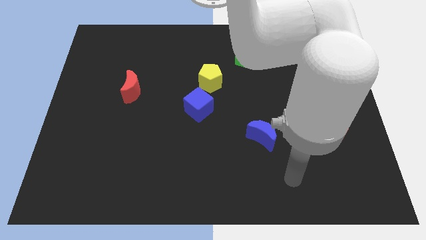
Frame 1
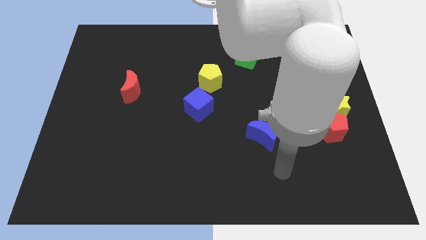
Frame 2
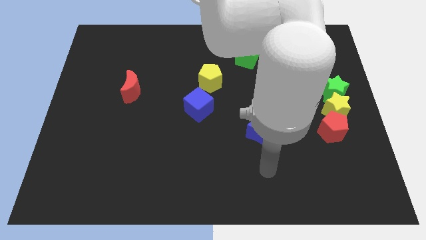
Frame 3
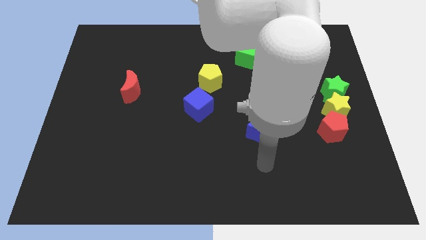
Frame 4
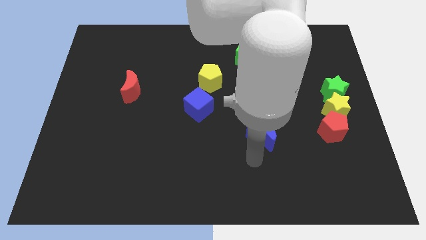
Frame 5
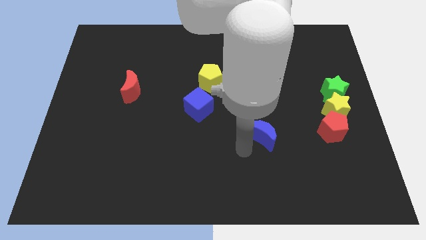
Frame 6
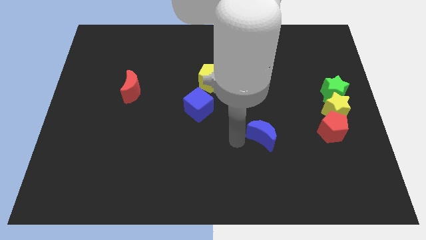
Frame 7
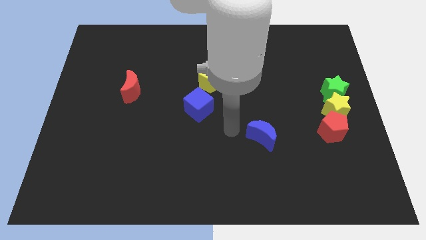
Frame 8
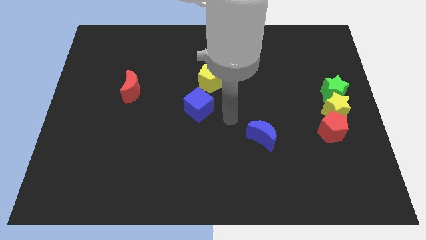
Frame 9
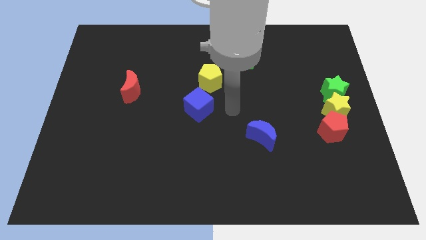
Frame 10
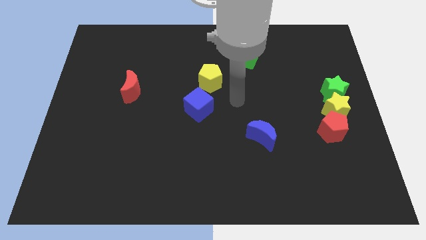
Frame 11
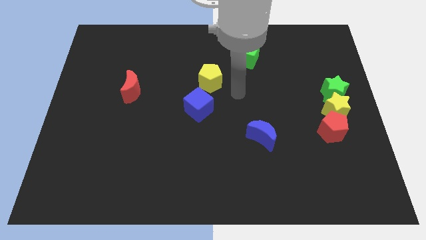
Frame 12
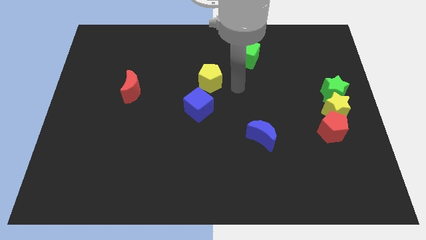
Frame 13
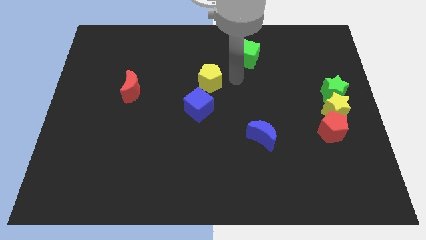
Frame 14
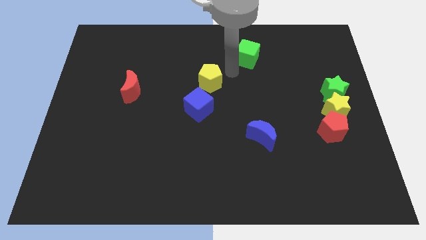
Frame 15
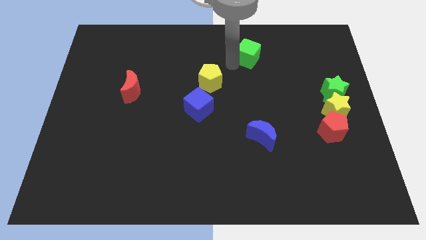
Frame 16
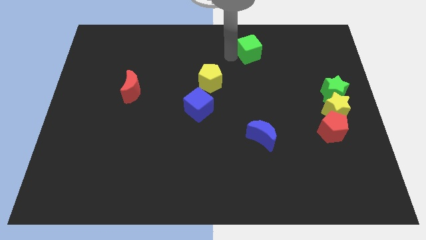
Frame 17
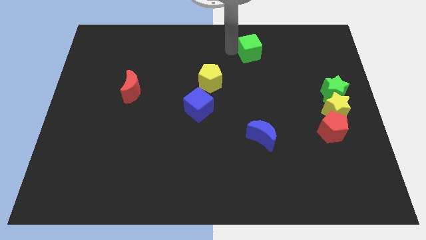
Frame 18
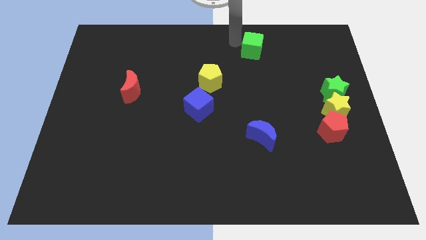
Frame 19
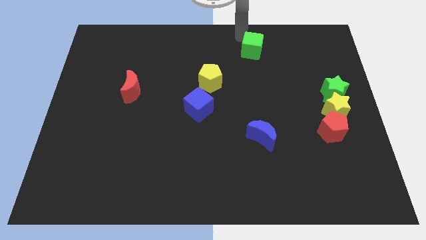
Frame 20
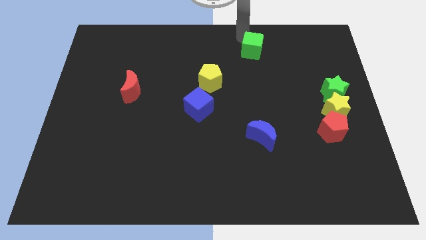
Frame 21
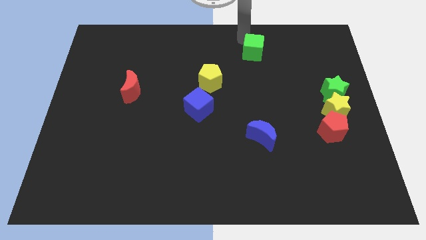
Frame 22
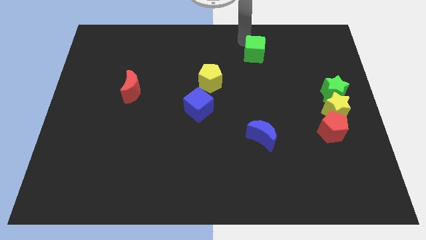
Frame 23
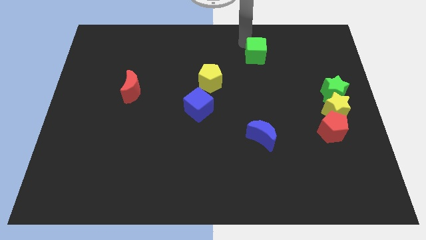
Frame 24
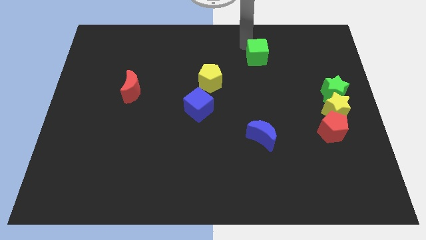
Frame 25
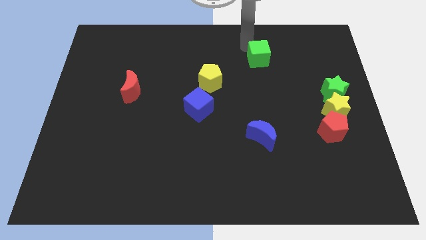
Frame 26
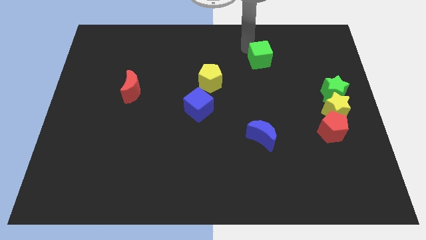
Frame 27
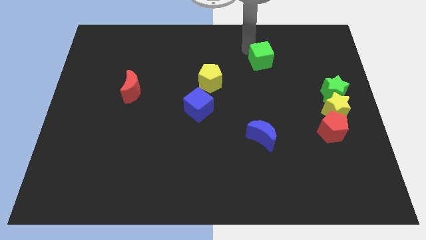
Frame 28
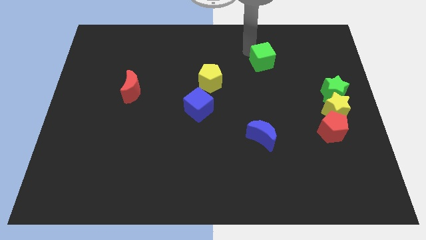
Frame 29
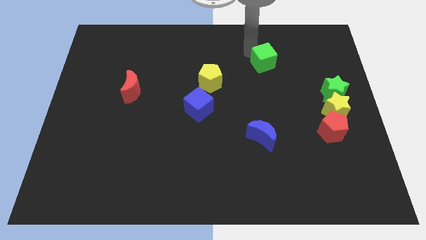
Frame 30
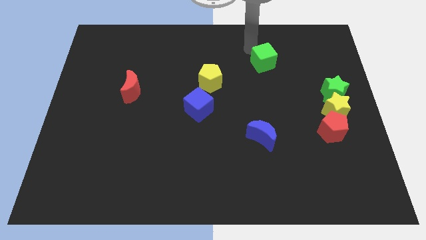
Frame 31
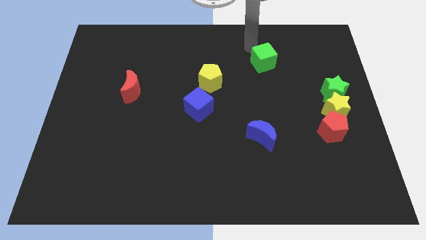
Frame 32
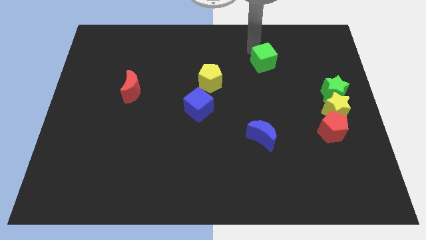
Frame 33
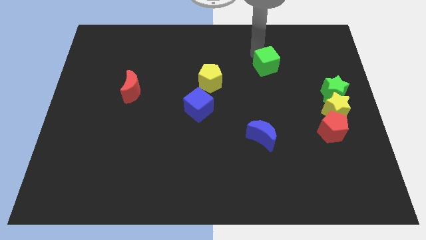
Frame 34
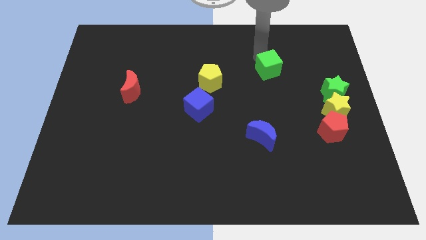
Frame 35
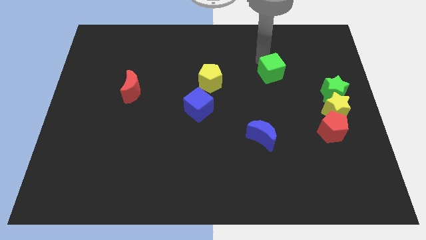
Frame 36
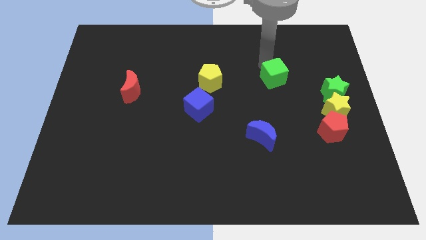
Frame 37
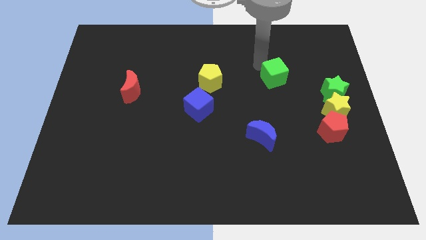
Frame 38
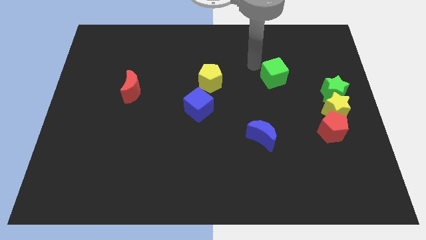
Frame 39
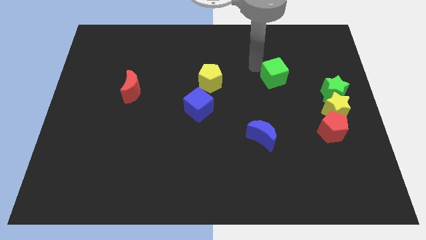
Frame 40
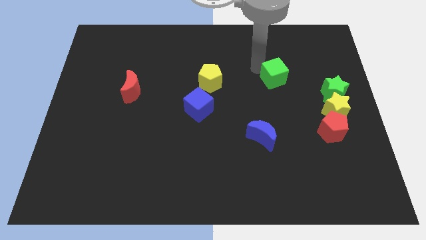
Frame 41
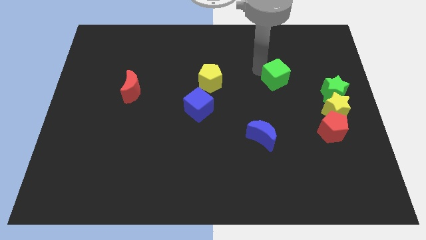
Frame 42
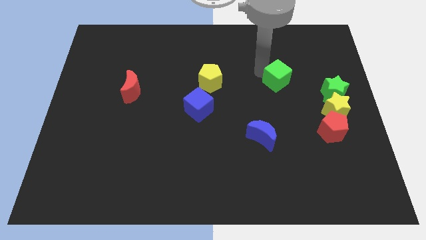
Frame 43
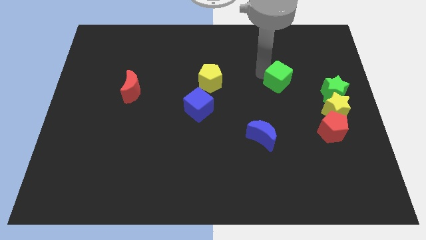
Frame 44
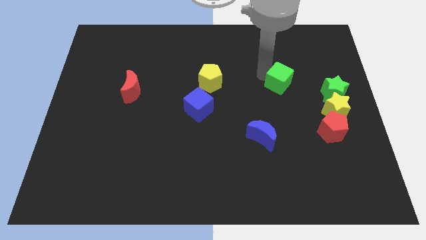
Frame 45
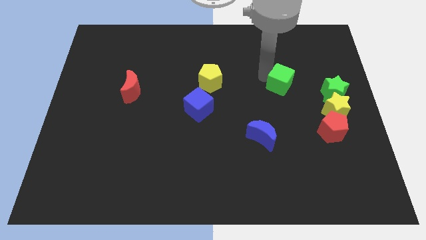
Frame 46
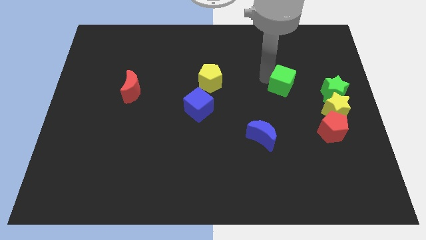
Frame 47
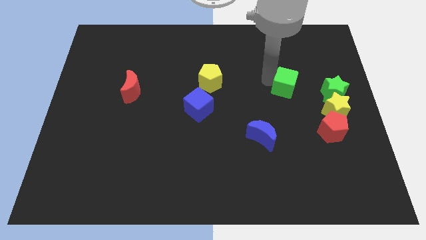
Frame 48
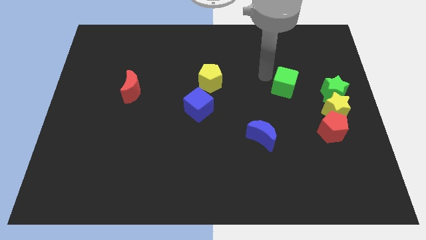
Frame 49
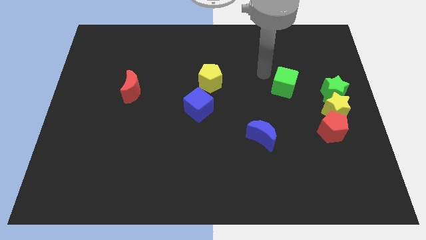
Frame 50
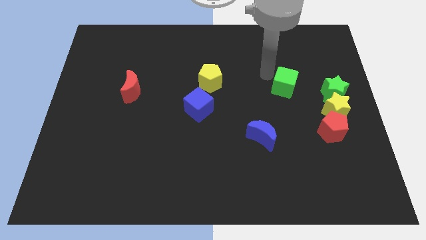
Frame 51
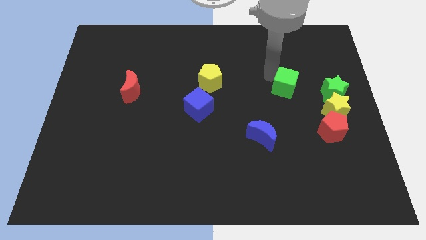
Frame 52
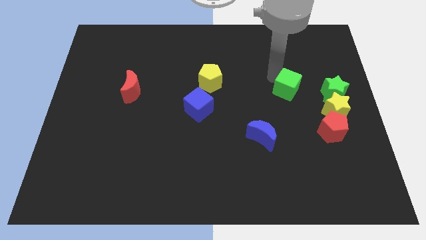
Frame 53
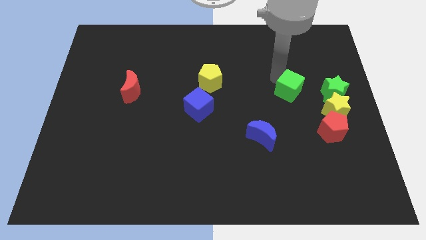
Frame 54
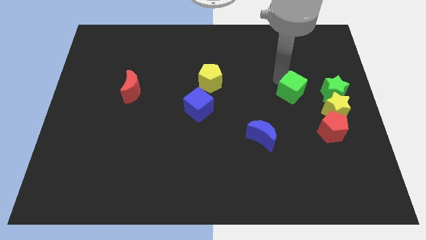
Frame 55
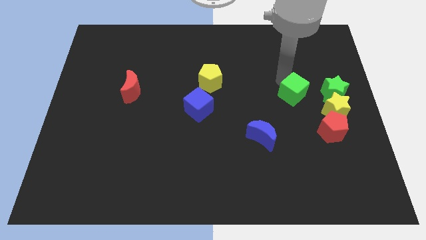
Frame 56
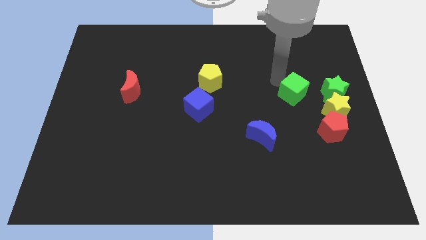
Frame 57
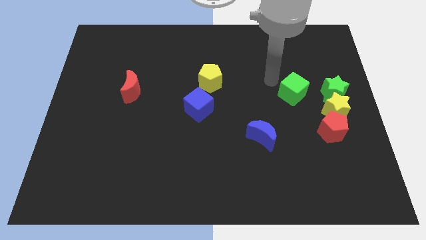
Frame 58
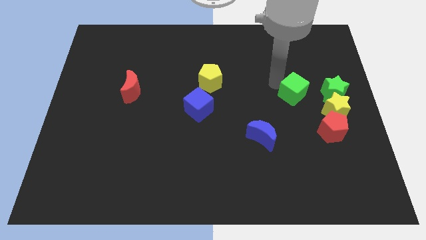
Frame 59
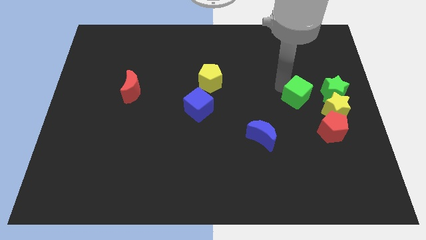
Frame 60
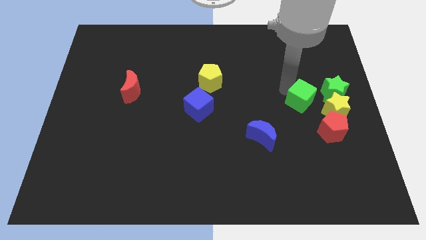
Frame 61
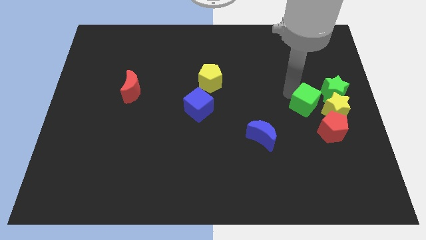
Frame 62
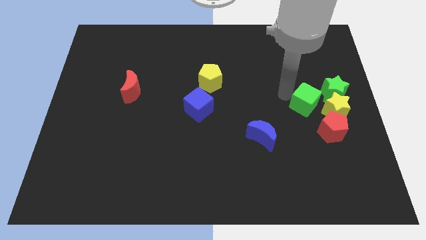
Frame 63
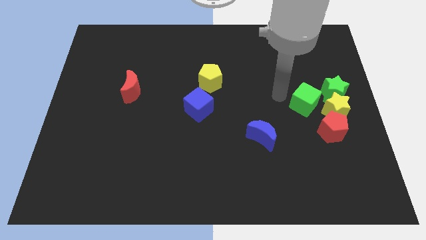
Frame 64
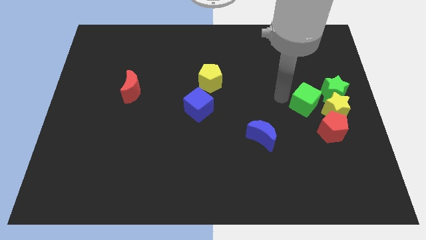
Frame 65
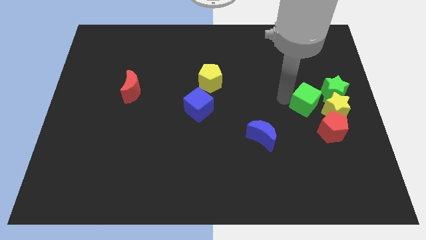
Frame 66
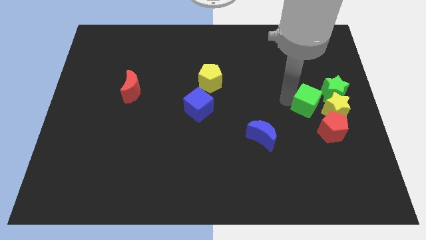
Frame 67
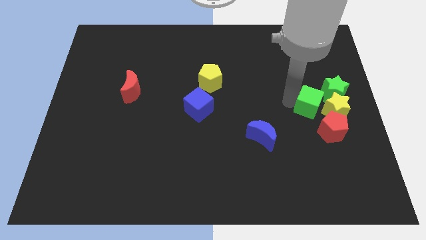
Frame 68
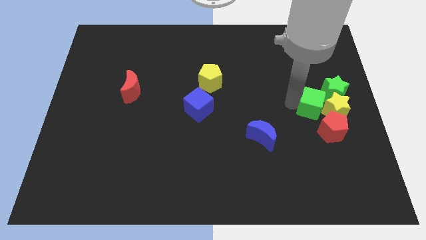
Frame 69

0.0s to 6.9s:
slide the green cube next to the yellow star
